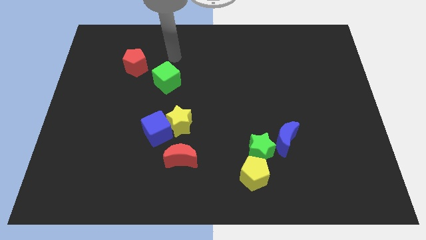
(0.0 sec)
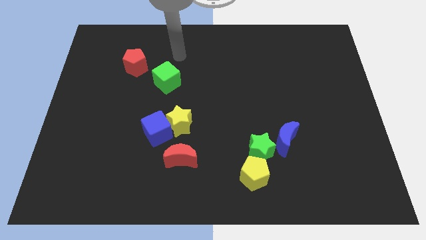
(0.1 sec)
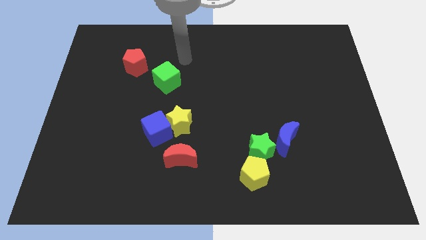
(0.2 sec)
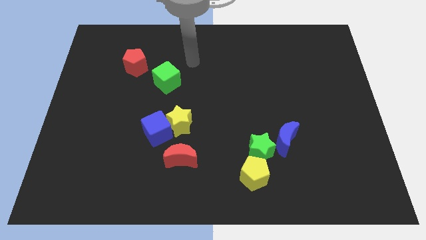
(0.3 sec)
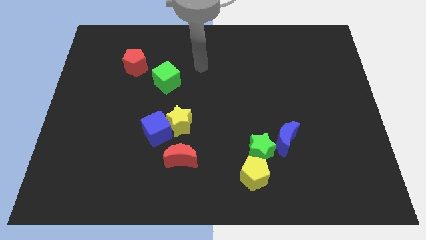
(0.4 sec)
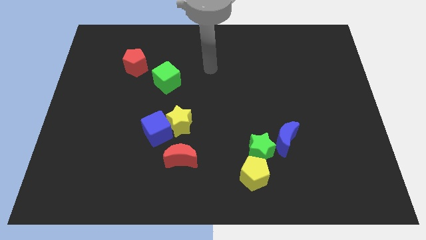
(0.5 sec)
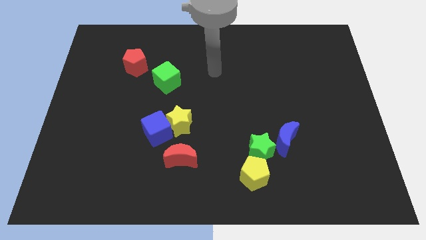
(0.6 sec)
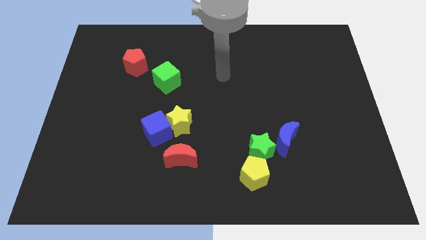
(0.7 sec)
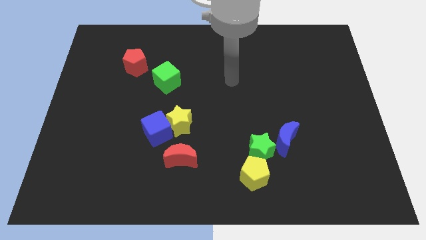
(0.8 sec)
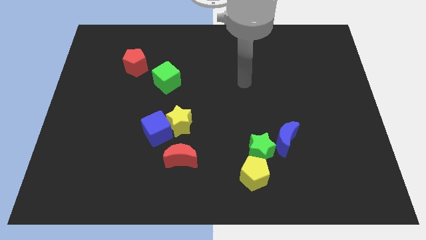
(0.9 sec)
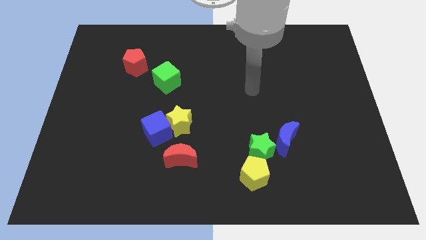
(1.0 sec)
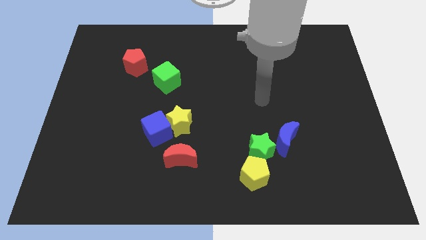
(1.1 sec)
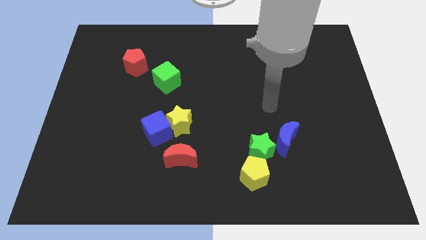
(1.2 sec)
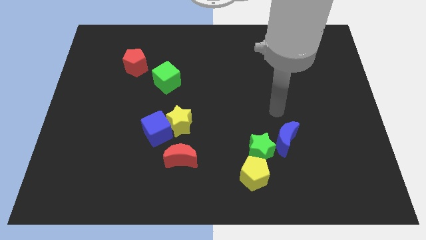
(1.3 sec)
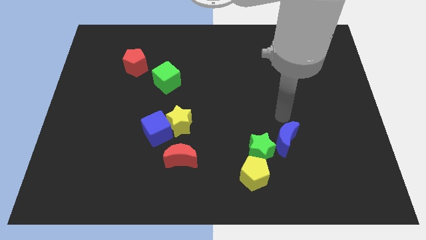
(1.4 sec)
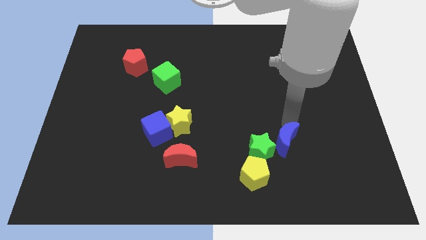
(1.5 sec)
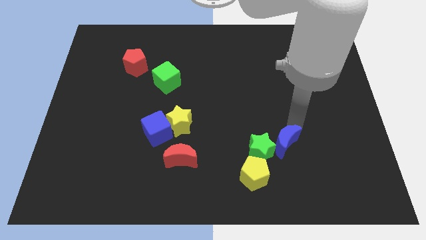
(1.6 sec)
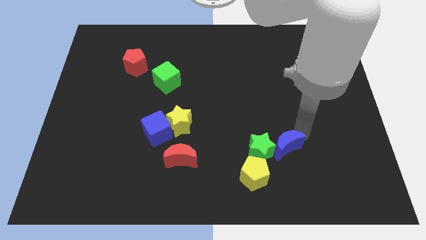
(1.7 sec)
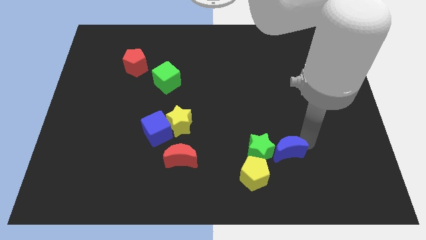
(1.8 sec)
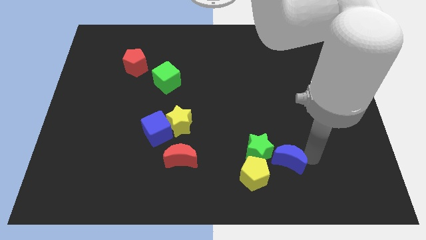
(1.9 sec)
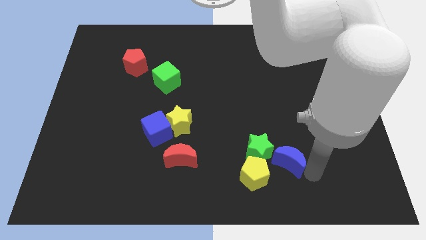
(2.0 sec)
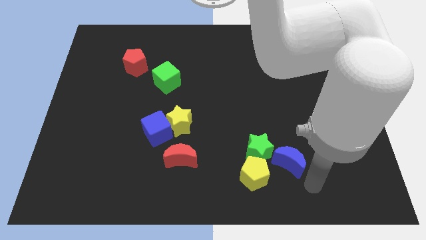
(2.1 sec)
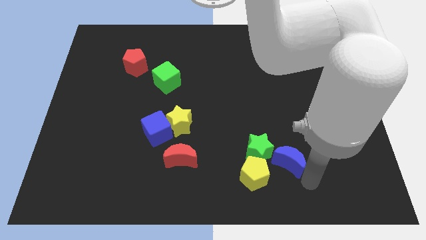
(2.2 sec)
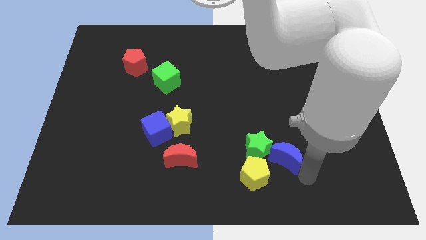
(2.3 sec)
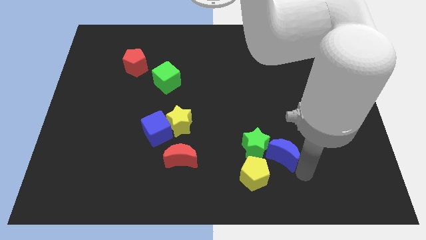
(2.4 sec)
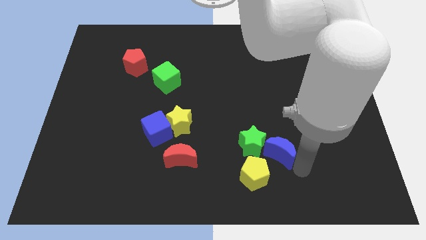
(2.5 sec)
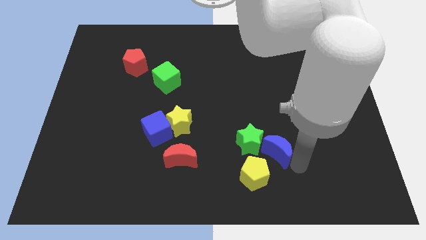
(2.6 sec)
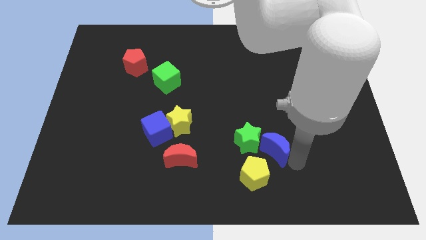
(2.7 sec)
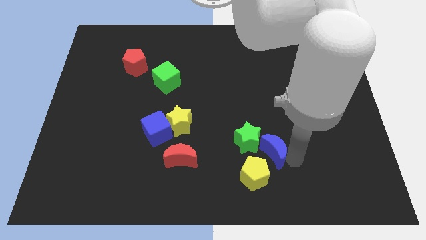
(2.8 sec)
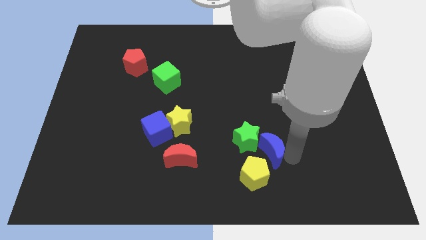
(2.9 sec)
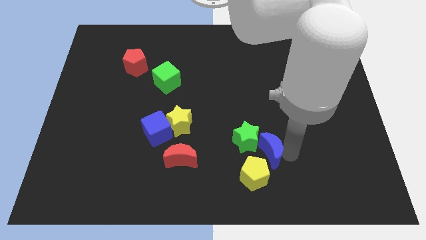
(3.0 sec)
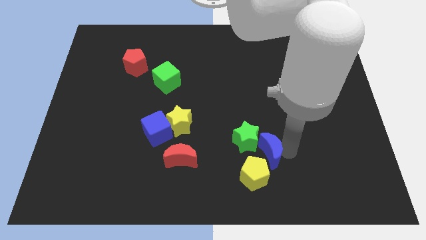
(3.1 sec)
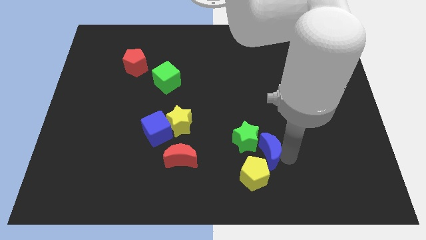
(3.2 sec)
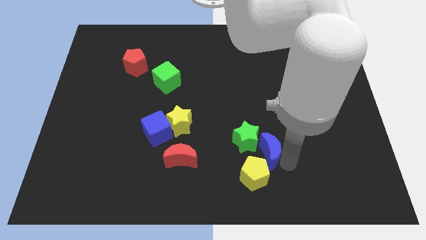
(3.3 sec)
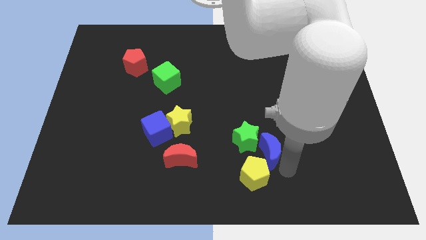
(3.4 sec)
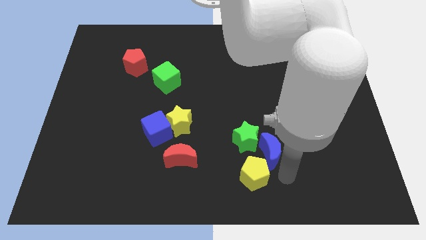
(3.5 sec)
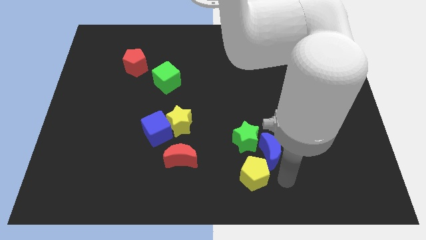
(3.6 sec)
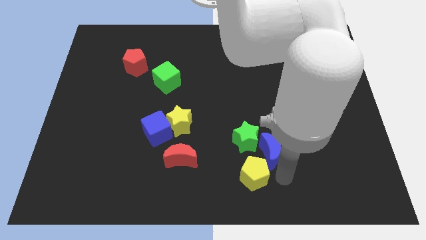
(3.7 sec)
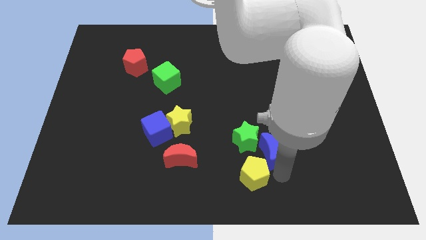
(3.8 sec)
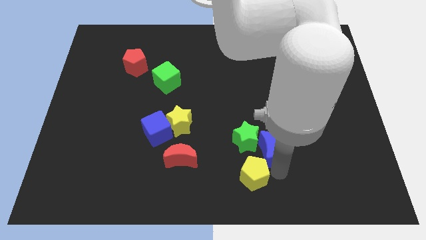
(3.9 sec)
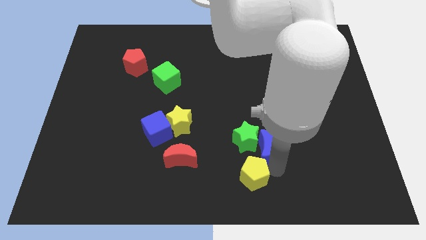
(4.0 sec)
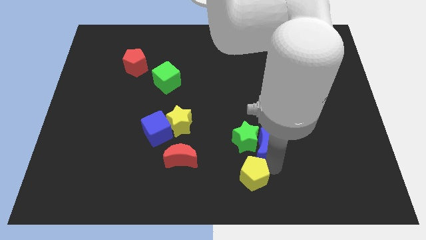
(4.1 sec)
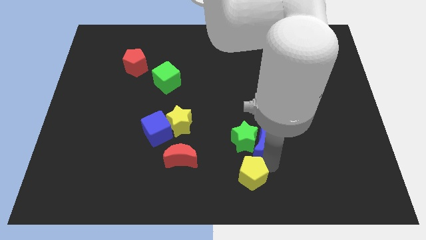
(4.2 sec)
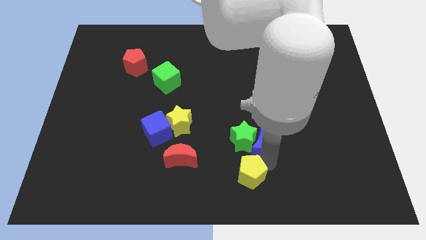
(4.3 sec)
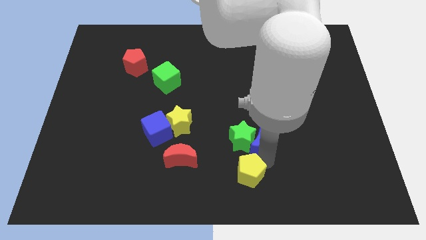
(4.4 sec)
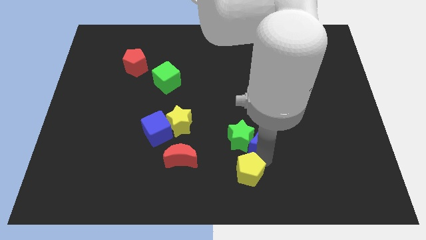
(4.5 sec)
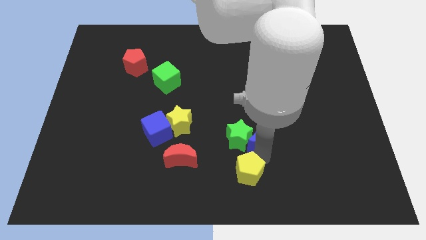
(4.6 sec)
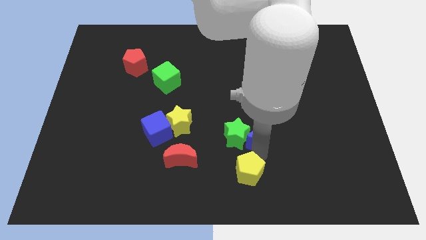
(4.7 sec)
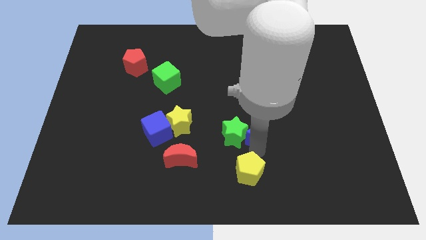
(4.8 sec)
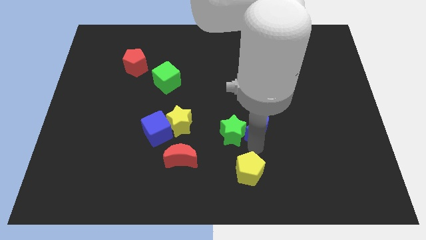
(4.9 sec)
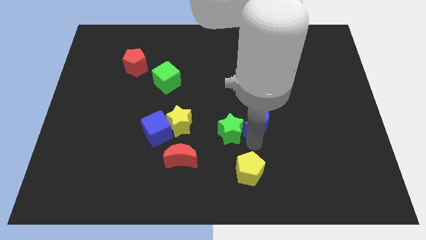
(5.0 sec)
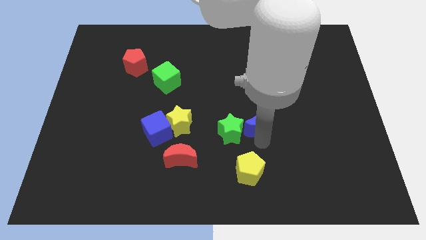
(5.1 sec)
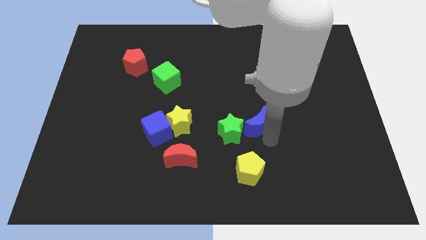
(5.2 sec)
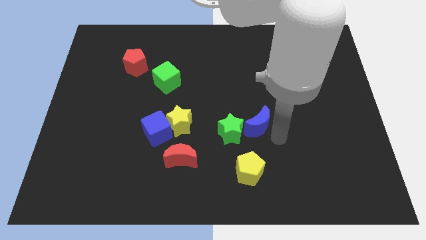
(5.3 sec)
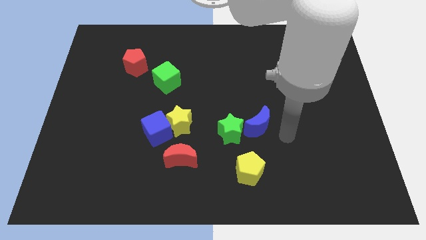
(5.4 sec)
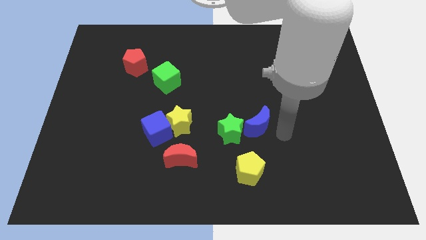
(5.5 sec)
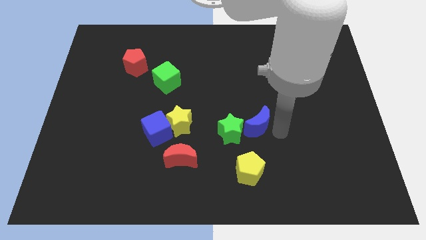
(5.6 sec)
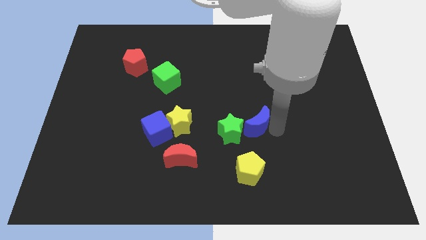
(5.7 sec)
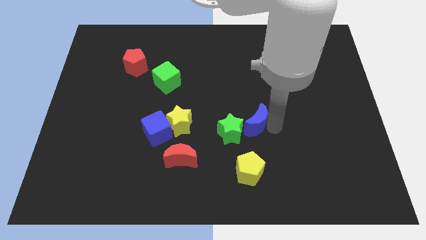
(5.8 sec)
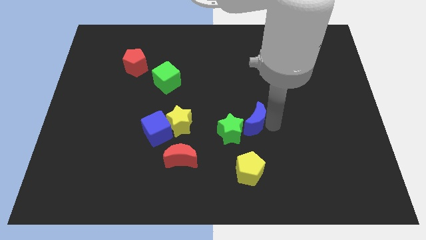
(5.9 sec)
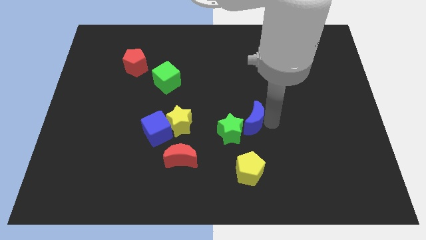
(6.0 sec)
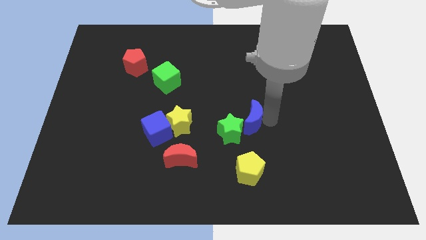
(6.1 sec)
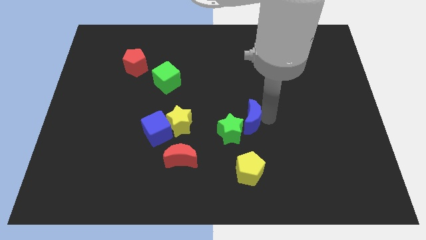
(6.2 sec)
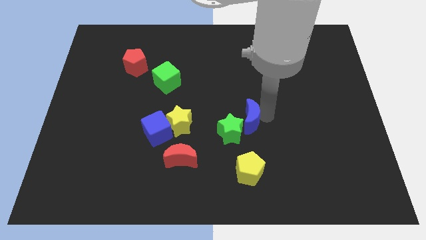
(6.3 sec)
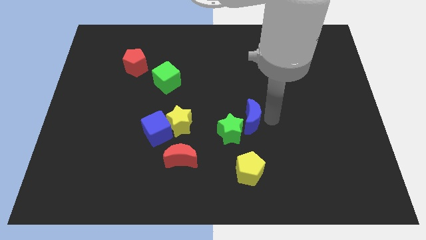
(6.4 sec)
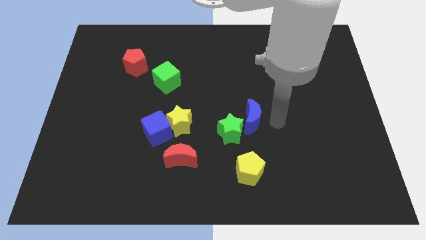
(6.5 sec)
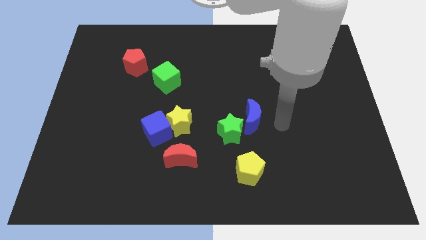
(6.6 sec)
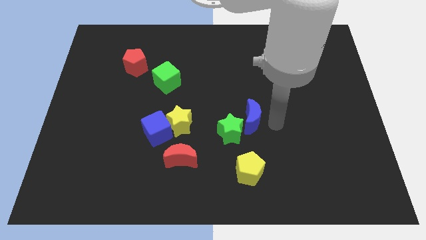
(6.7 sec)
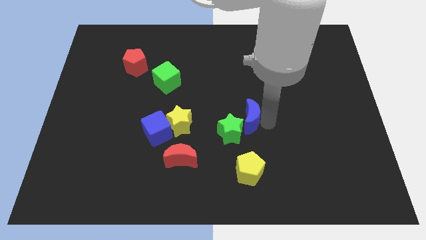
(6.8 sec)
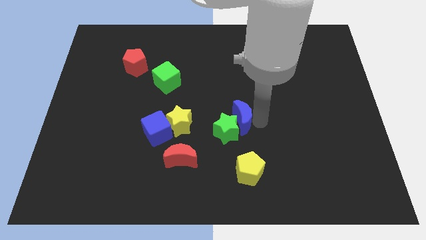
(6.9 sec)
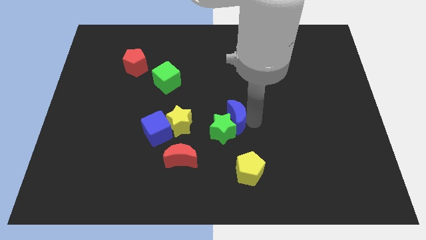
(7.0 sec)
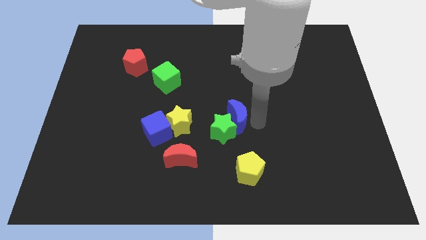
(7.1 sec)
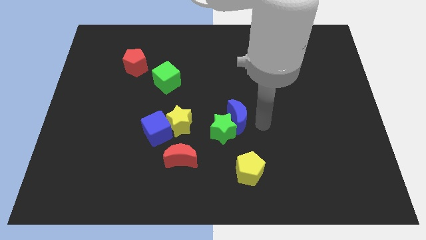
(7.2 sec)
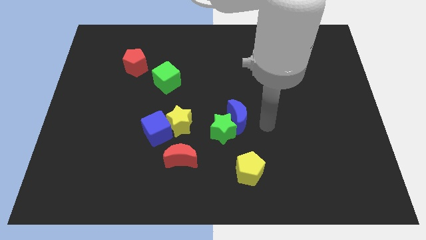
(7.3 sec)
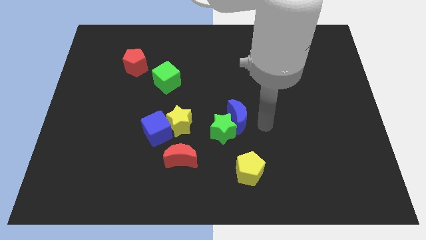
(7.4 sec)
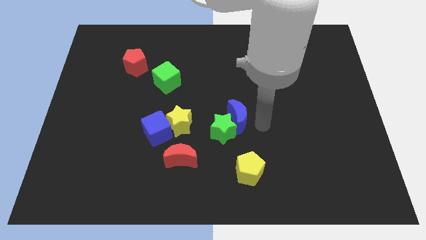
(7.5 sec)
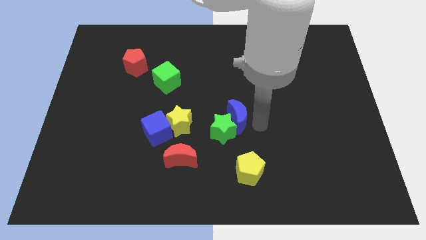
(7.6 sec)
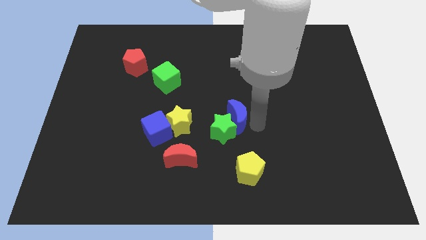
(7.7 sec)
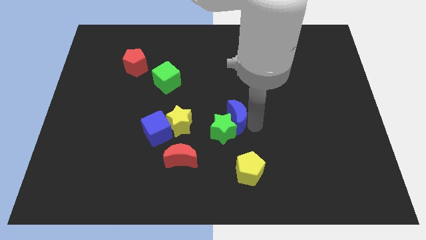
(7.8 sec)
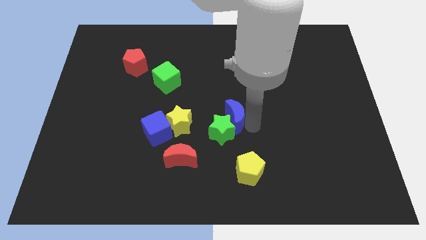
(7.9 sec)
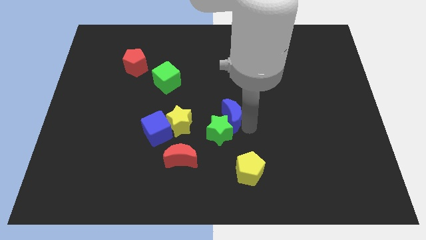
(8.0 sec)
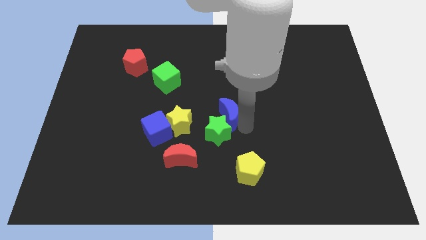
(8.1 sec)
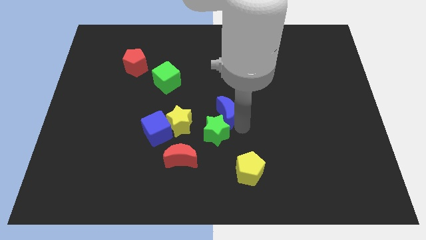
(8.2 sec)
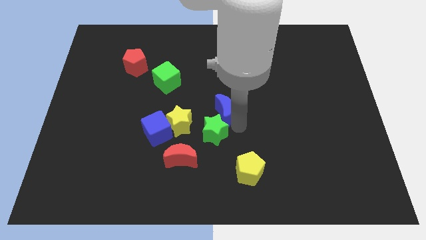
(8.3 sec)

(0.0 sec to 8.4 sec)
slide the blue moon diagonally up and to the right of the yellow star
